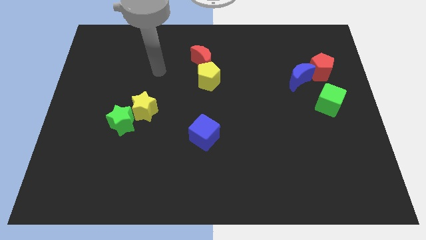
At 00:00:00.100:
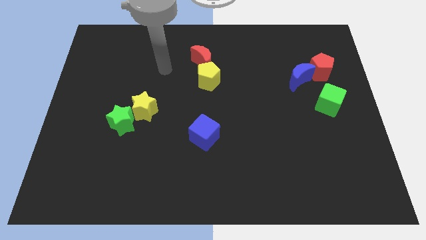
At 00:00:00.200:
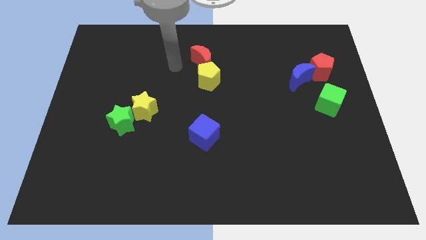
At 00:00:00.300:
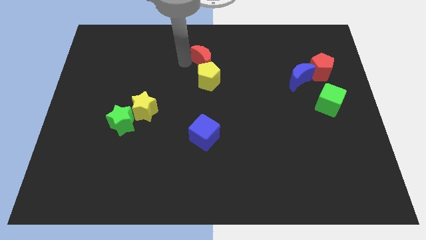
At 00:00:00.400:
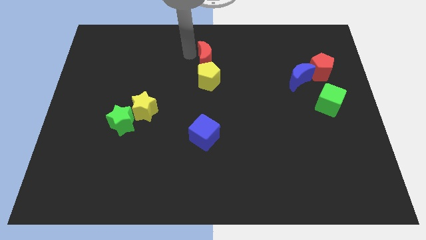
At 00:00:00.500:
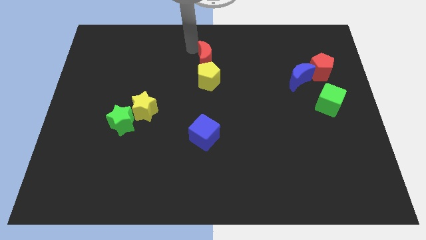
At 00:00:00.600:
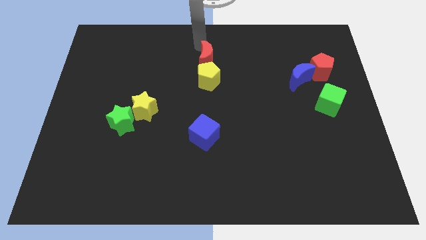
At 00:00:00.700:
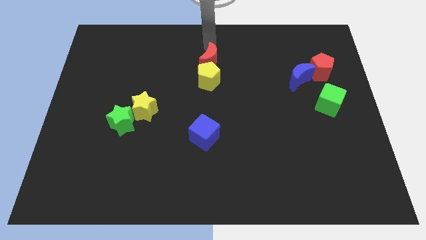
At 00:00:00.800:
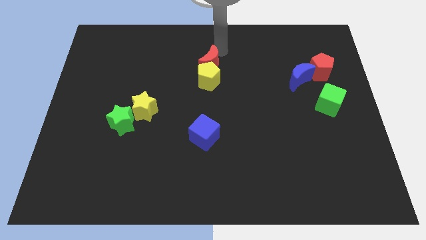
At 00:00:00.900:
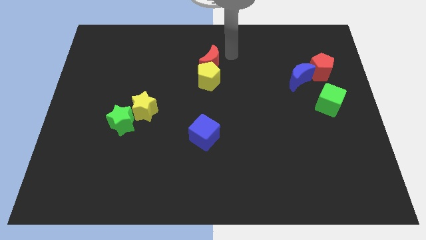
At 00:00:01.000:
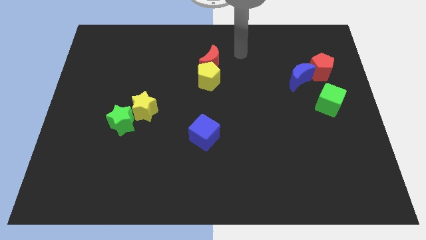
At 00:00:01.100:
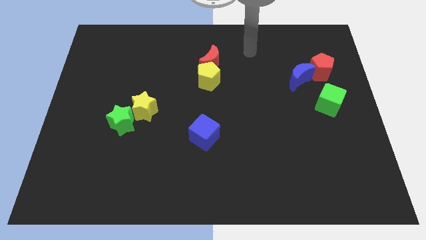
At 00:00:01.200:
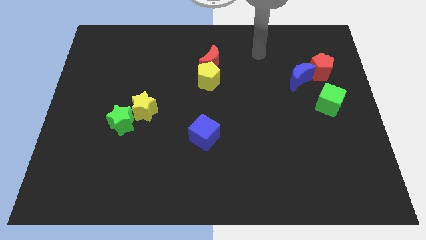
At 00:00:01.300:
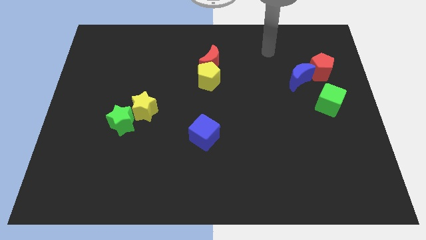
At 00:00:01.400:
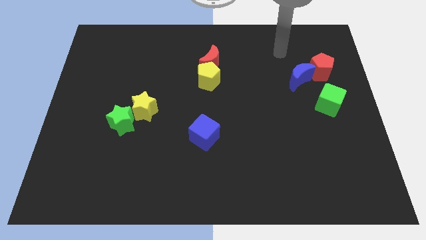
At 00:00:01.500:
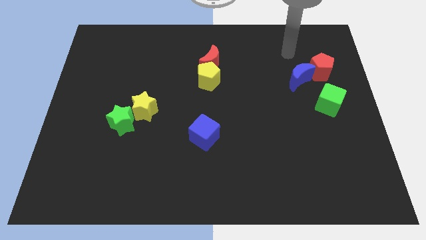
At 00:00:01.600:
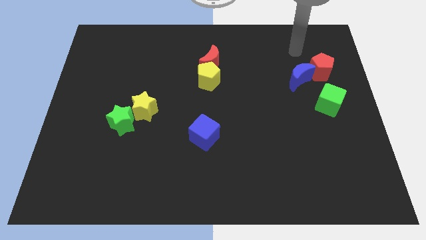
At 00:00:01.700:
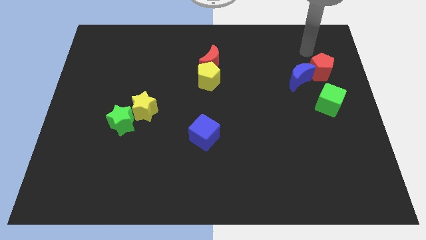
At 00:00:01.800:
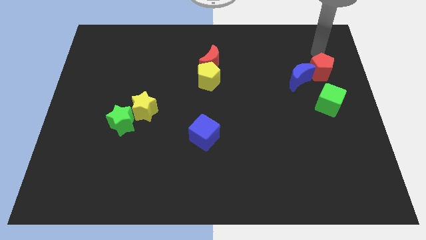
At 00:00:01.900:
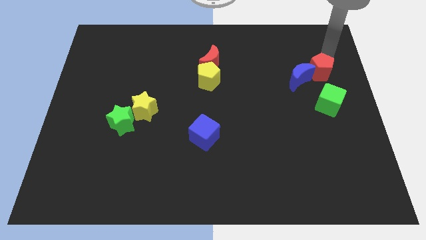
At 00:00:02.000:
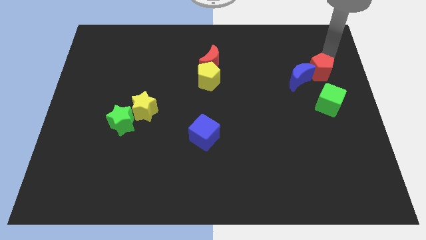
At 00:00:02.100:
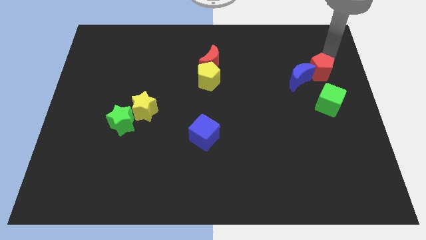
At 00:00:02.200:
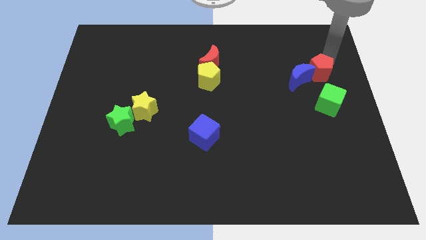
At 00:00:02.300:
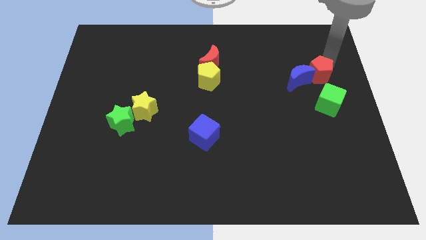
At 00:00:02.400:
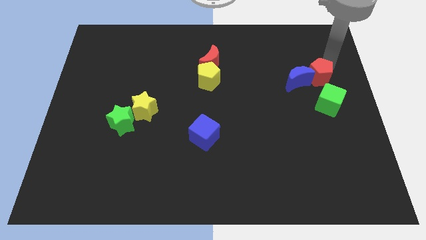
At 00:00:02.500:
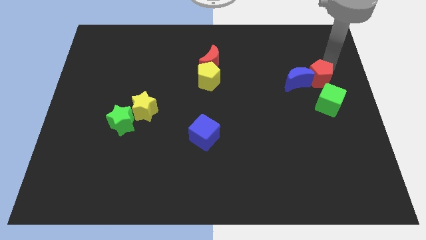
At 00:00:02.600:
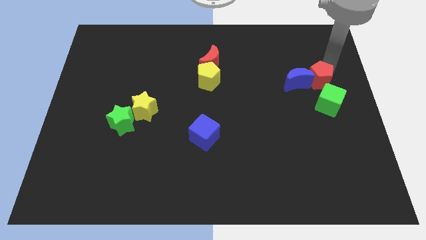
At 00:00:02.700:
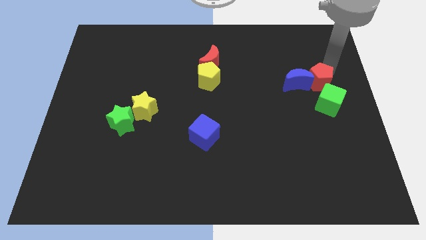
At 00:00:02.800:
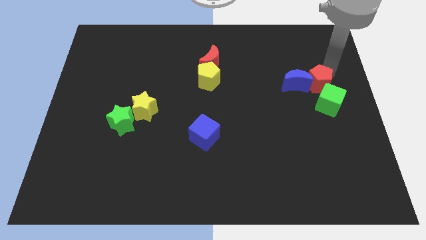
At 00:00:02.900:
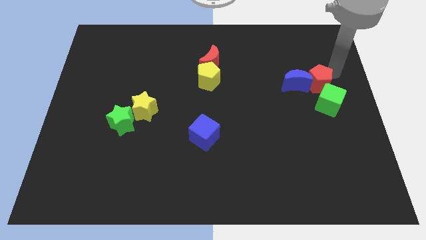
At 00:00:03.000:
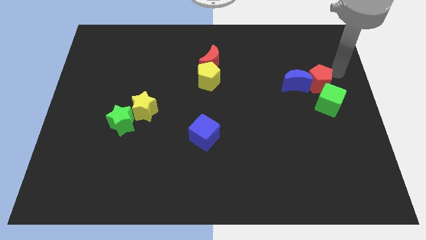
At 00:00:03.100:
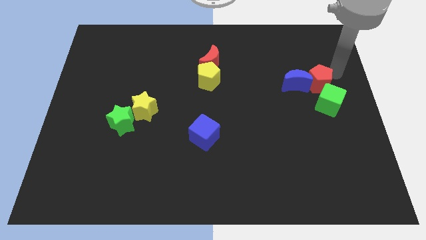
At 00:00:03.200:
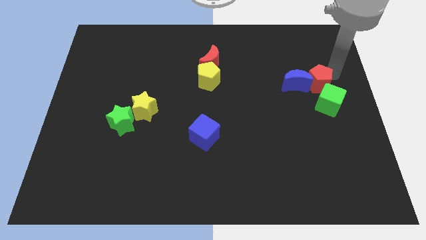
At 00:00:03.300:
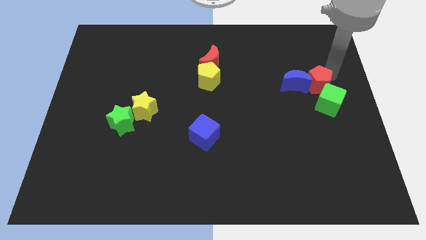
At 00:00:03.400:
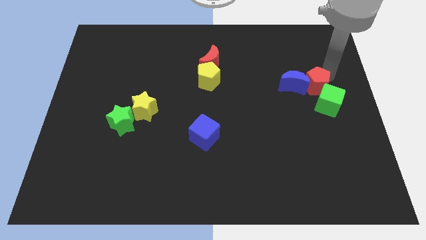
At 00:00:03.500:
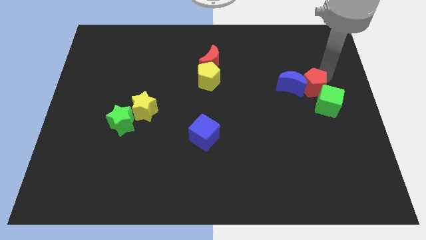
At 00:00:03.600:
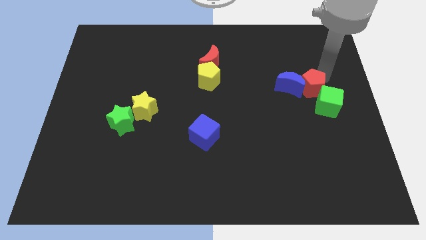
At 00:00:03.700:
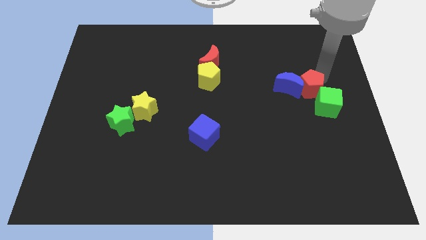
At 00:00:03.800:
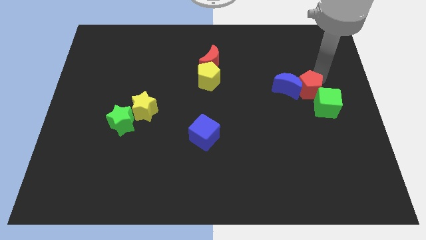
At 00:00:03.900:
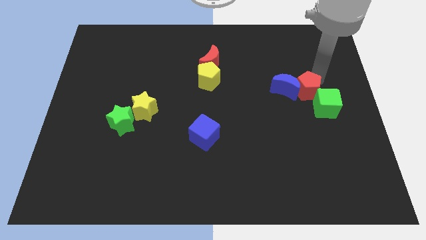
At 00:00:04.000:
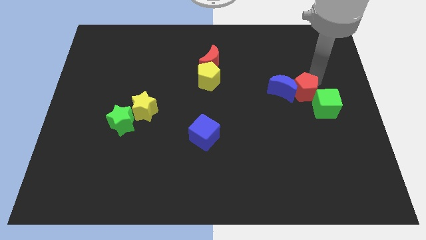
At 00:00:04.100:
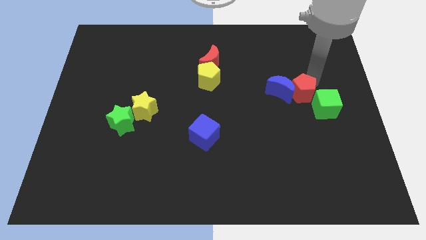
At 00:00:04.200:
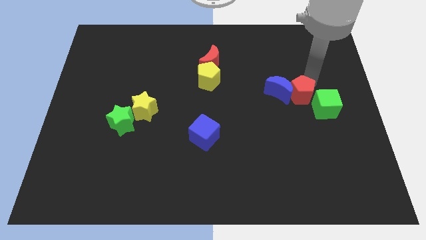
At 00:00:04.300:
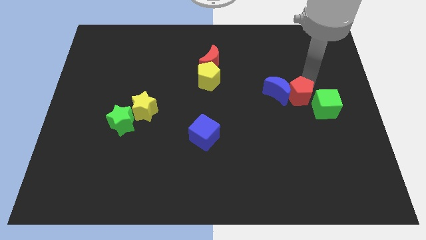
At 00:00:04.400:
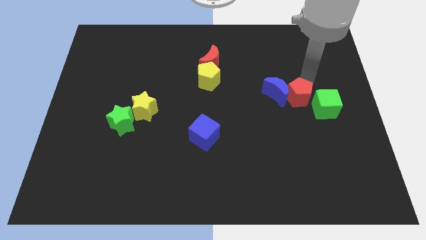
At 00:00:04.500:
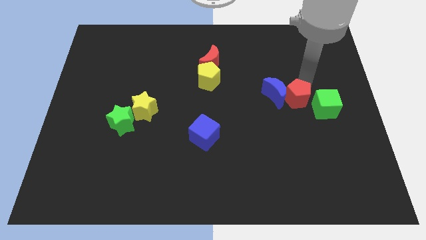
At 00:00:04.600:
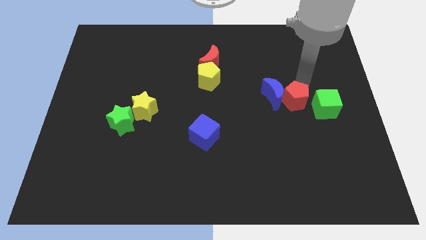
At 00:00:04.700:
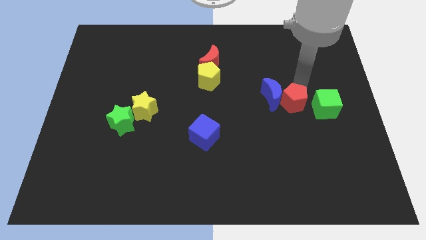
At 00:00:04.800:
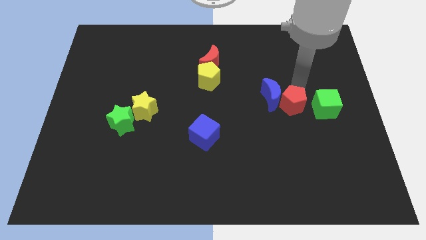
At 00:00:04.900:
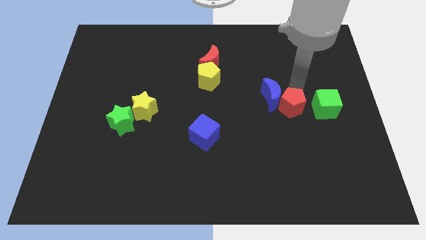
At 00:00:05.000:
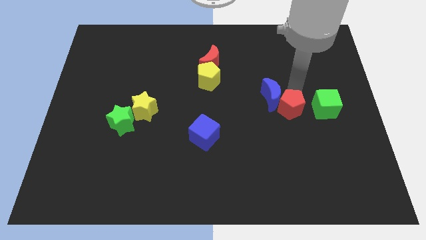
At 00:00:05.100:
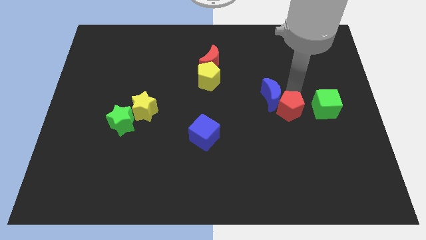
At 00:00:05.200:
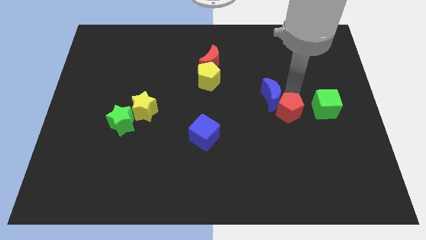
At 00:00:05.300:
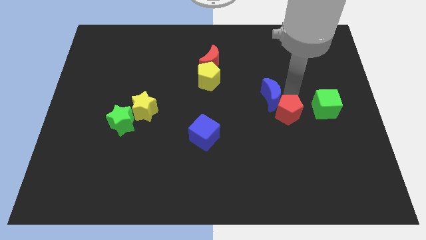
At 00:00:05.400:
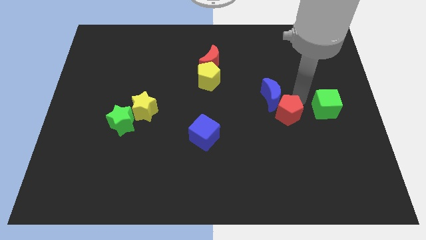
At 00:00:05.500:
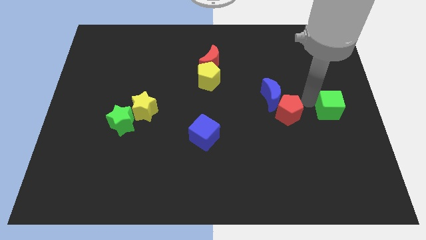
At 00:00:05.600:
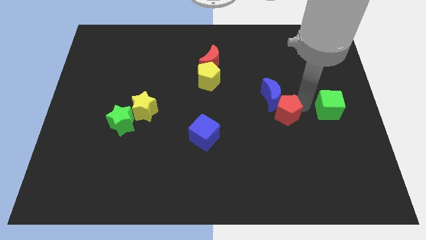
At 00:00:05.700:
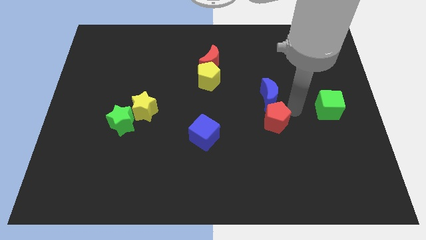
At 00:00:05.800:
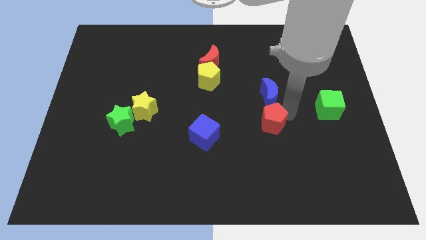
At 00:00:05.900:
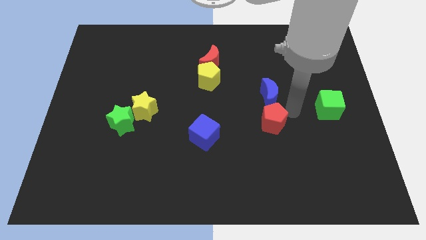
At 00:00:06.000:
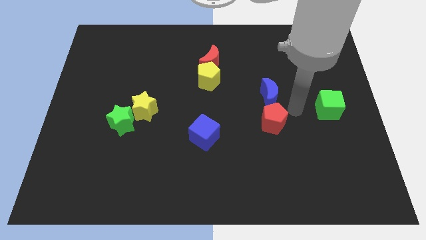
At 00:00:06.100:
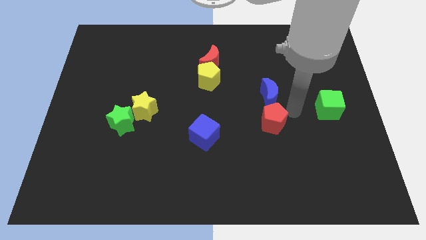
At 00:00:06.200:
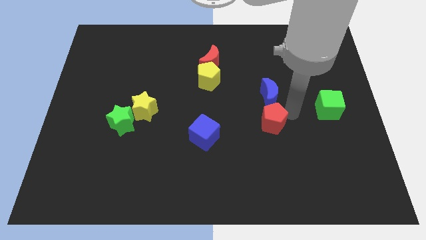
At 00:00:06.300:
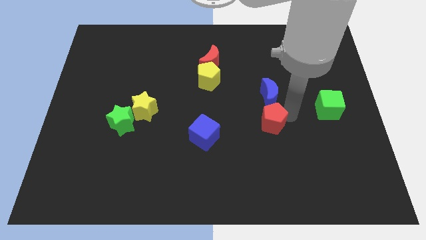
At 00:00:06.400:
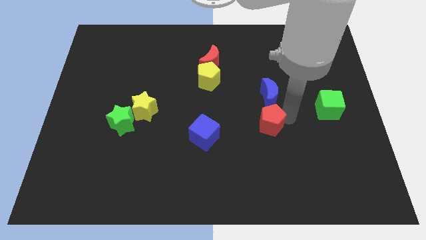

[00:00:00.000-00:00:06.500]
push the red pentagon right of the blue cube
